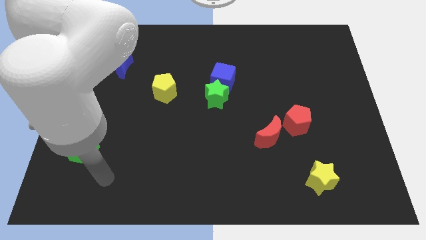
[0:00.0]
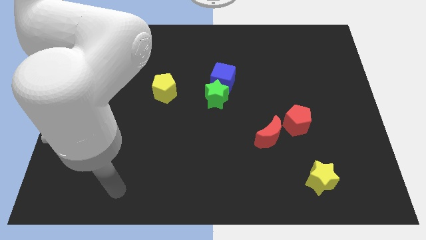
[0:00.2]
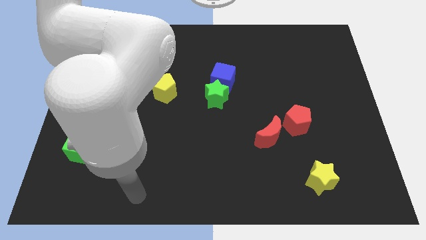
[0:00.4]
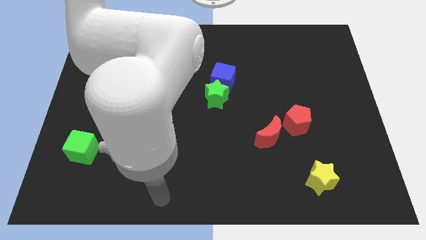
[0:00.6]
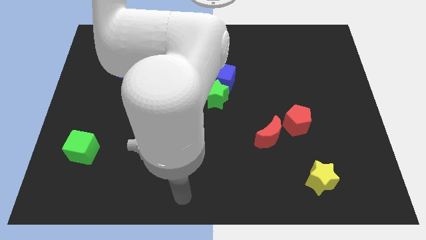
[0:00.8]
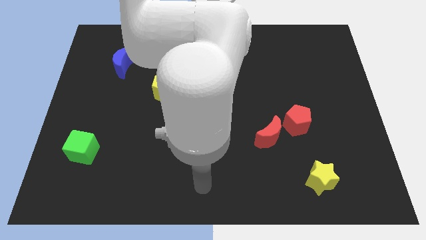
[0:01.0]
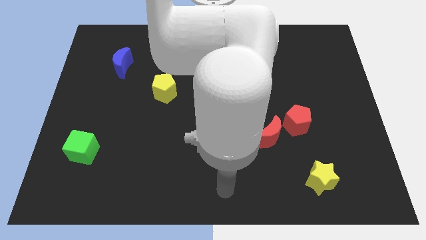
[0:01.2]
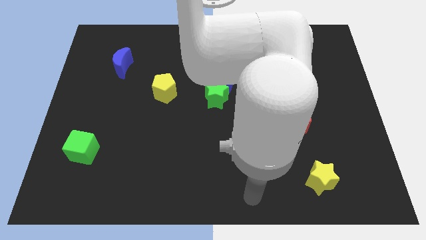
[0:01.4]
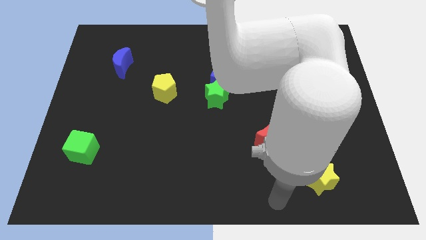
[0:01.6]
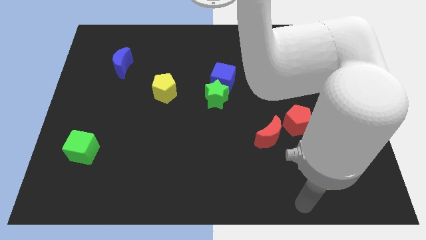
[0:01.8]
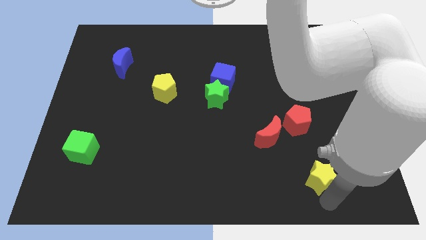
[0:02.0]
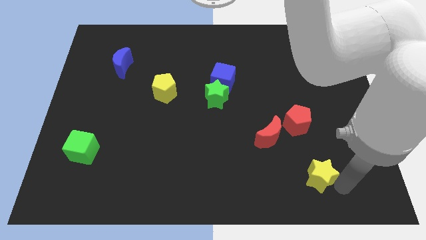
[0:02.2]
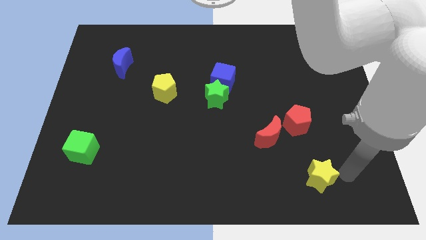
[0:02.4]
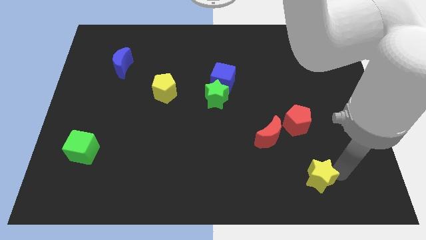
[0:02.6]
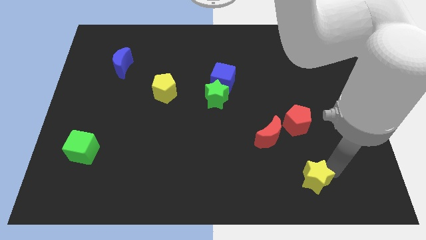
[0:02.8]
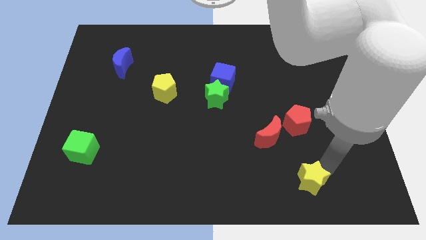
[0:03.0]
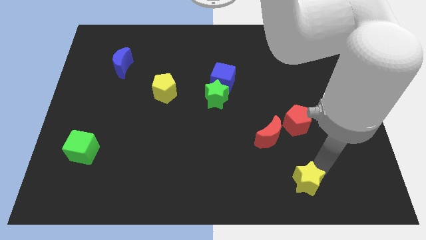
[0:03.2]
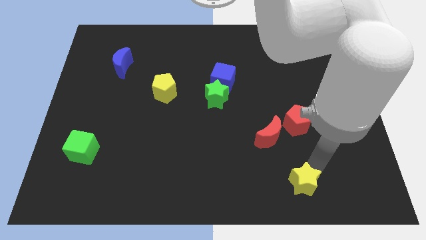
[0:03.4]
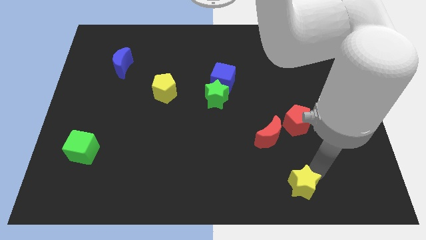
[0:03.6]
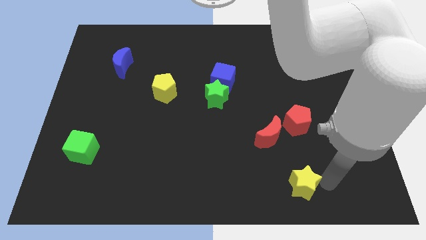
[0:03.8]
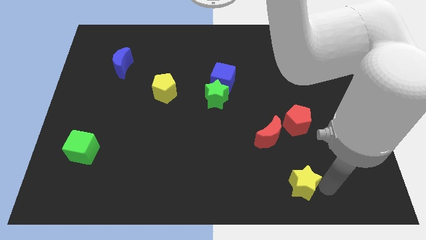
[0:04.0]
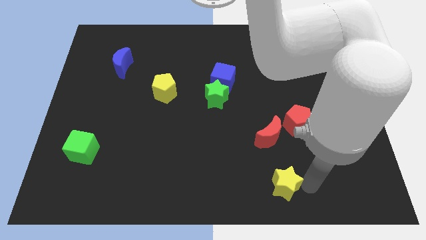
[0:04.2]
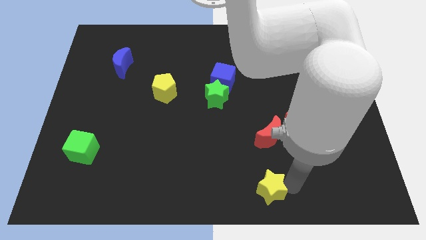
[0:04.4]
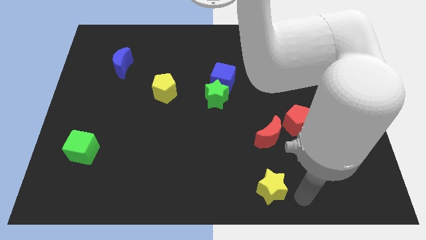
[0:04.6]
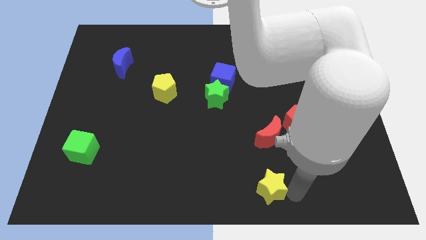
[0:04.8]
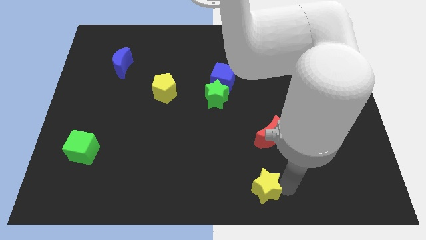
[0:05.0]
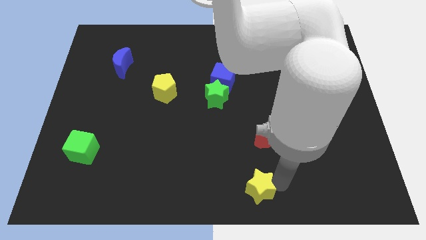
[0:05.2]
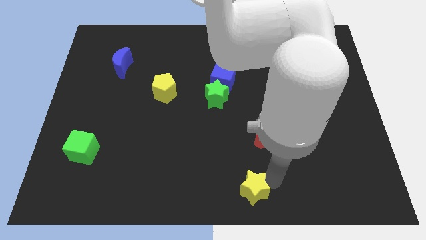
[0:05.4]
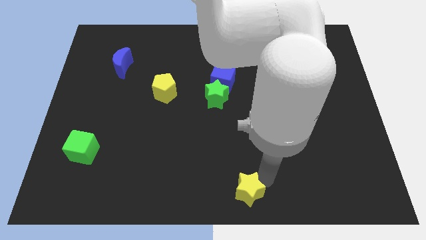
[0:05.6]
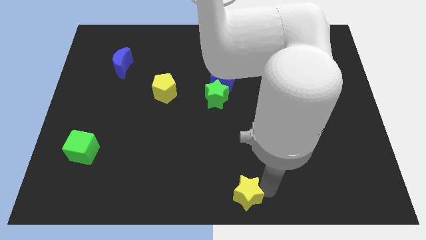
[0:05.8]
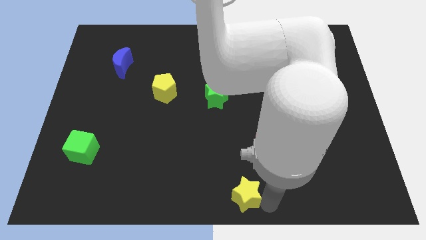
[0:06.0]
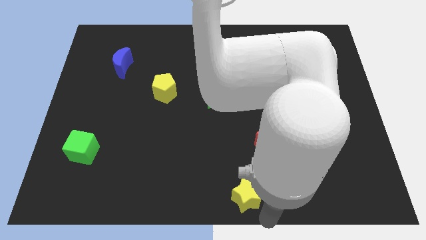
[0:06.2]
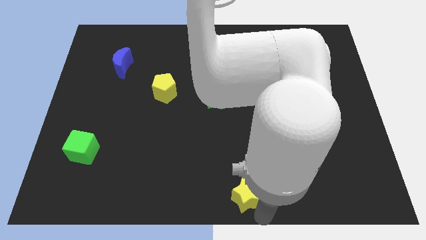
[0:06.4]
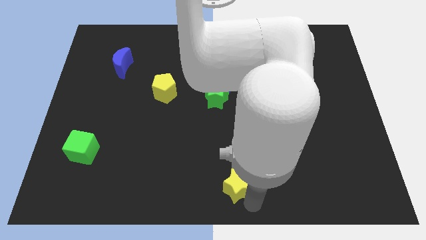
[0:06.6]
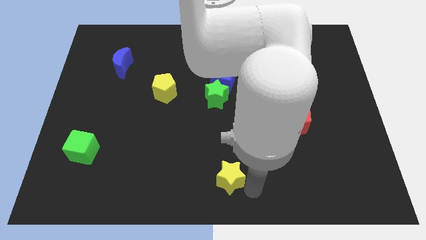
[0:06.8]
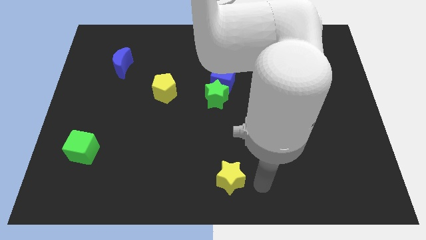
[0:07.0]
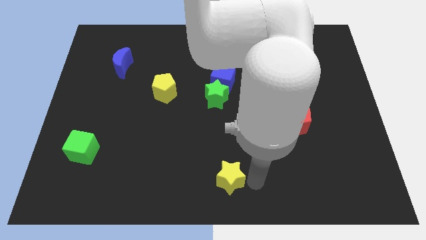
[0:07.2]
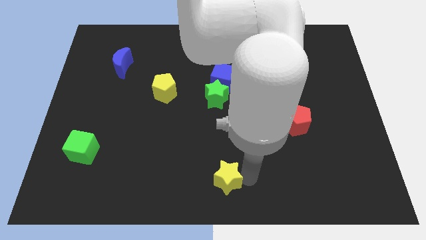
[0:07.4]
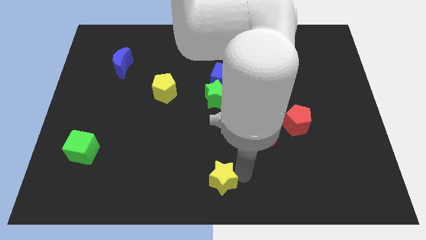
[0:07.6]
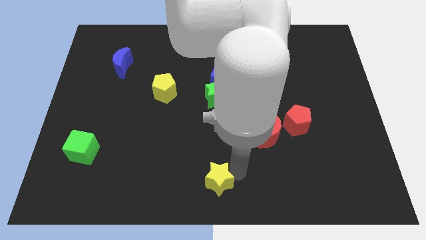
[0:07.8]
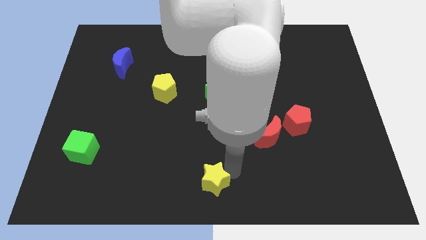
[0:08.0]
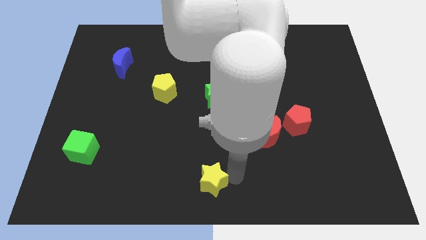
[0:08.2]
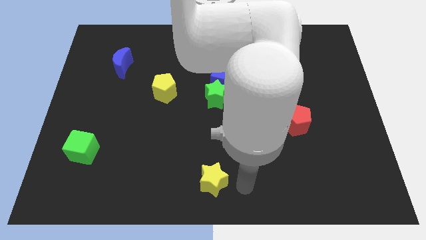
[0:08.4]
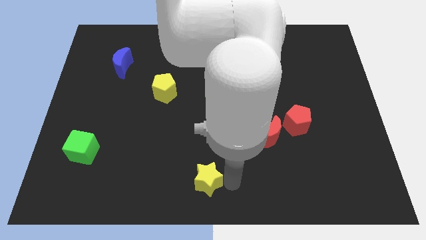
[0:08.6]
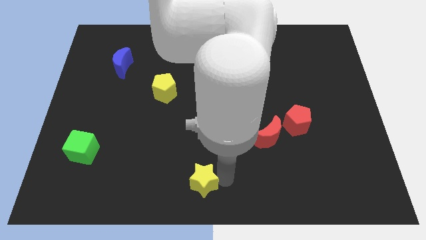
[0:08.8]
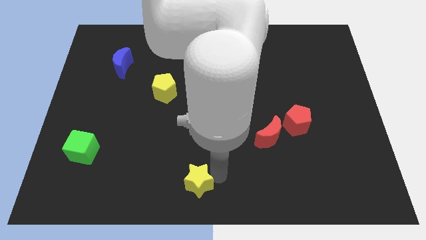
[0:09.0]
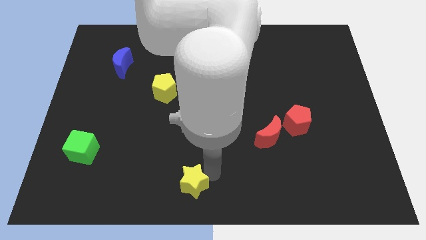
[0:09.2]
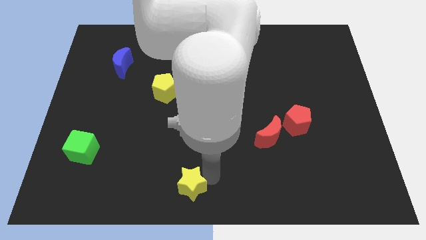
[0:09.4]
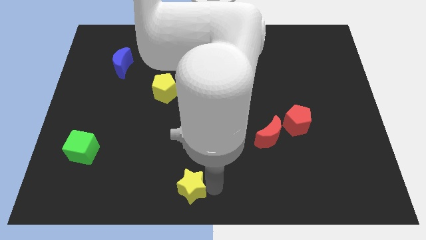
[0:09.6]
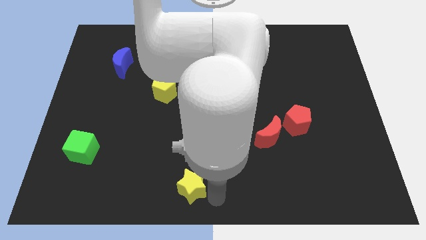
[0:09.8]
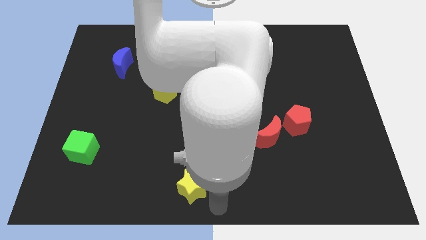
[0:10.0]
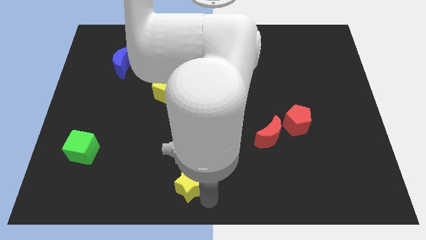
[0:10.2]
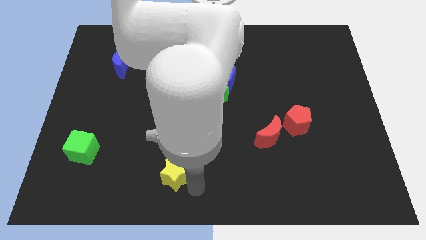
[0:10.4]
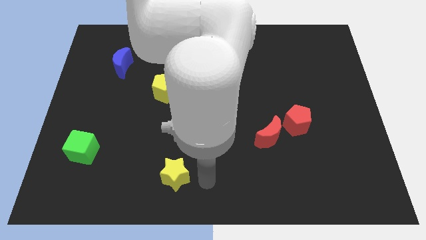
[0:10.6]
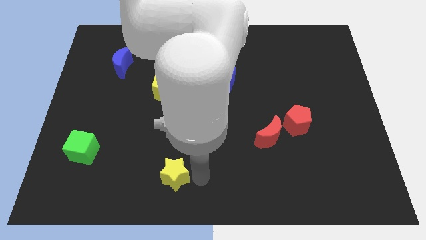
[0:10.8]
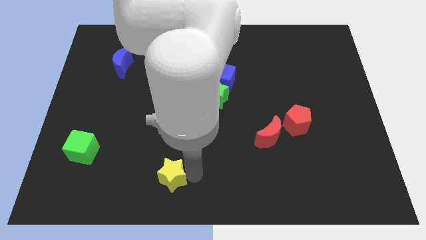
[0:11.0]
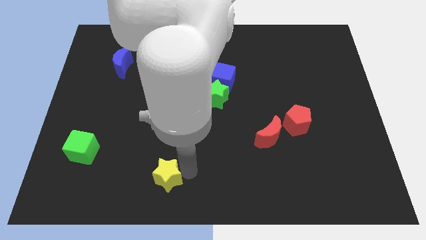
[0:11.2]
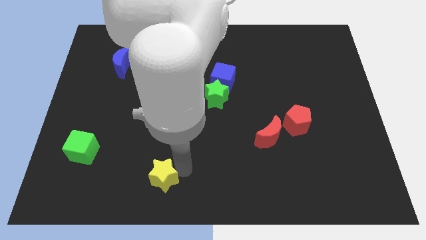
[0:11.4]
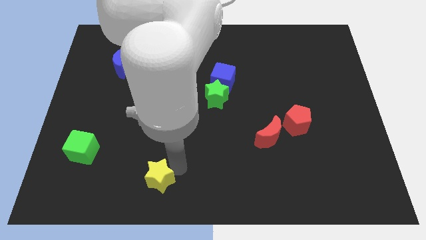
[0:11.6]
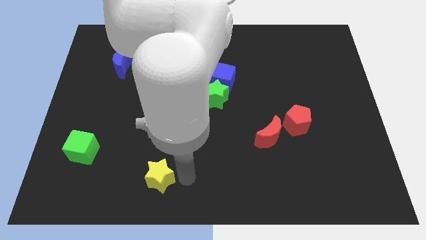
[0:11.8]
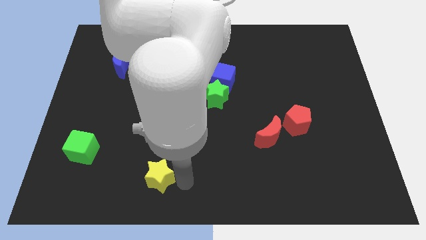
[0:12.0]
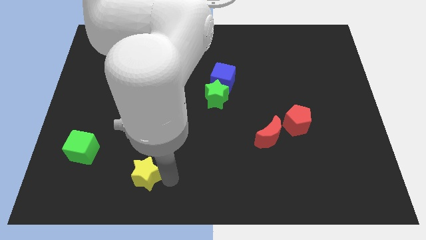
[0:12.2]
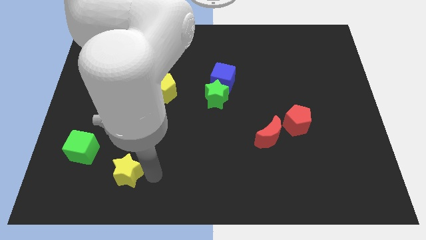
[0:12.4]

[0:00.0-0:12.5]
put the yellow star diagonally down and to the right of the green cube

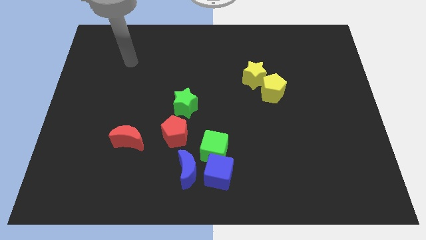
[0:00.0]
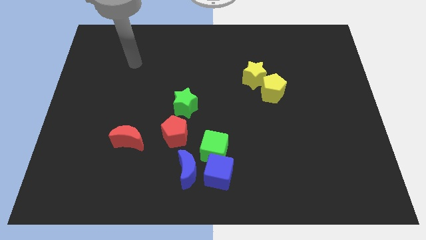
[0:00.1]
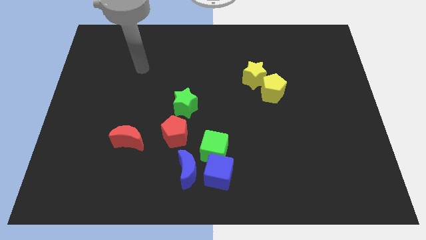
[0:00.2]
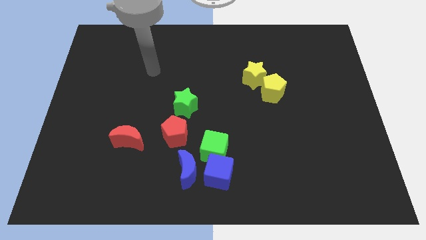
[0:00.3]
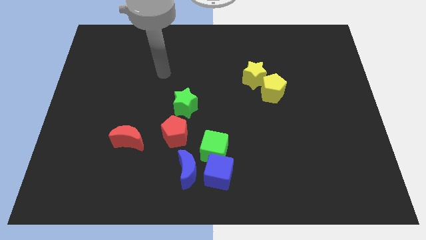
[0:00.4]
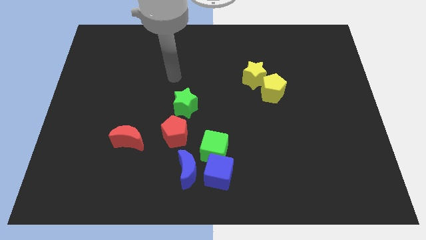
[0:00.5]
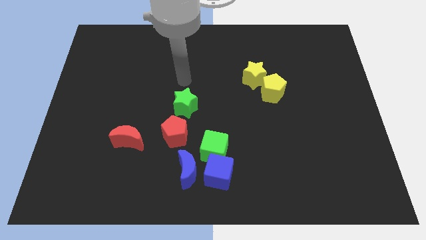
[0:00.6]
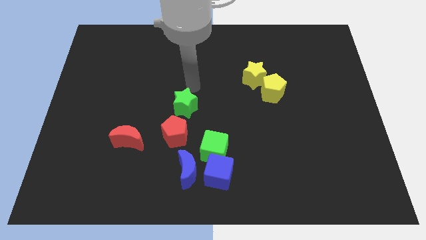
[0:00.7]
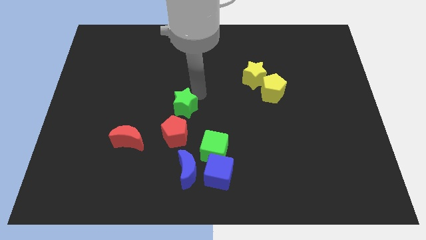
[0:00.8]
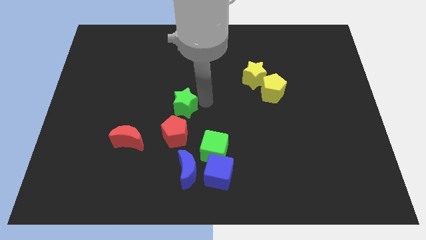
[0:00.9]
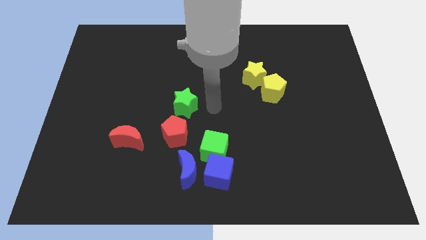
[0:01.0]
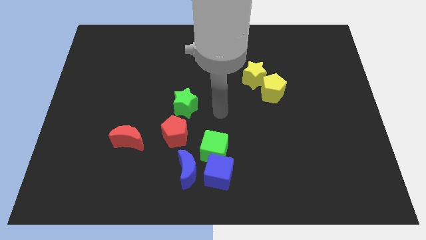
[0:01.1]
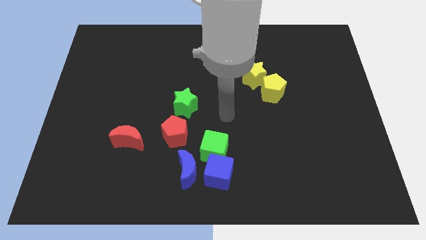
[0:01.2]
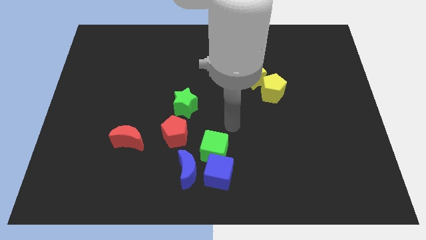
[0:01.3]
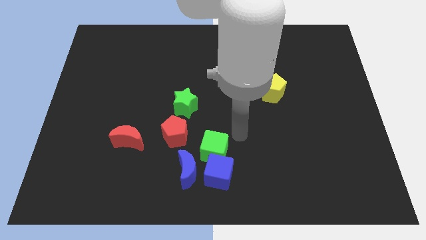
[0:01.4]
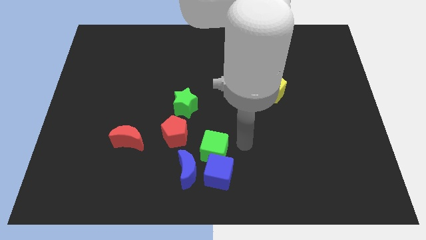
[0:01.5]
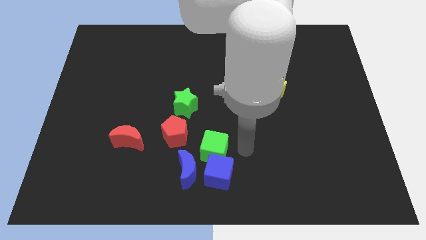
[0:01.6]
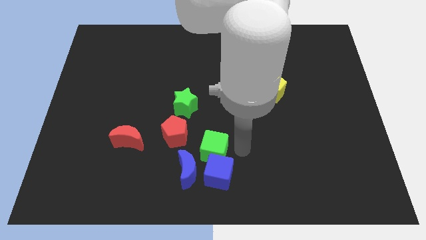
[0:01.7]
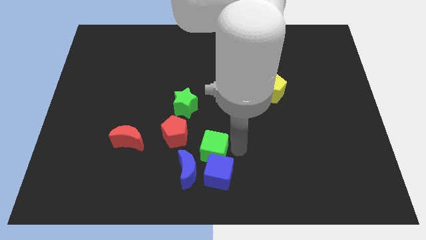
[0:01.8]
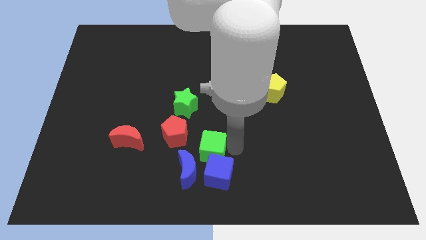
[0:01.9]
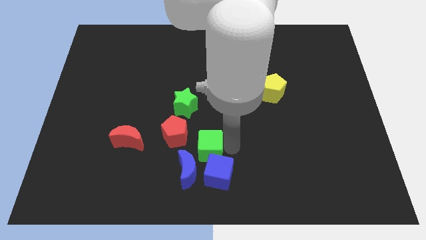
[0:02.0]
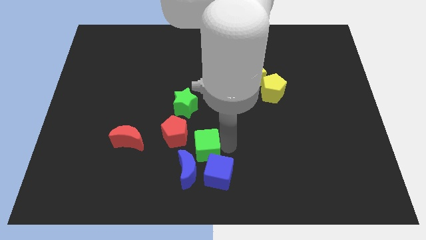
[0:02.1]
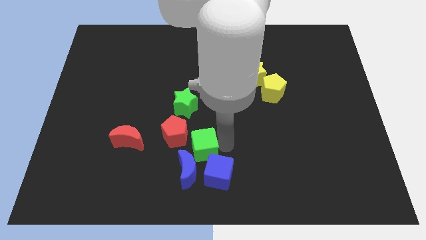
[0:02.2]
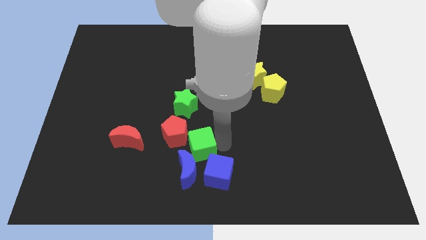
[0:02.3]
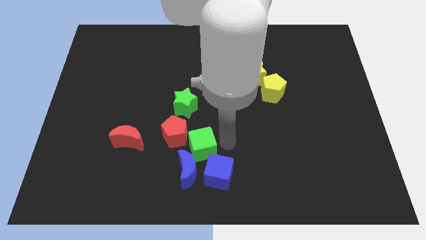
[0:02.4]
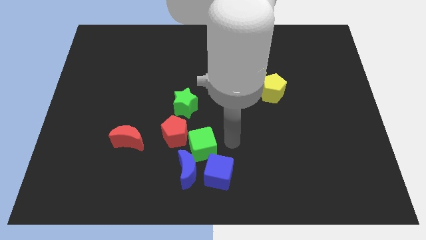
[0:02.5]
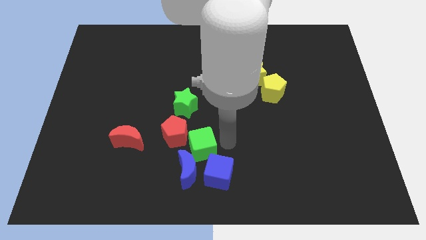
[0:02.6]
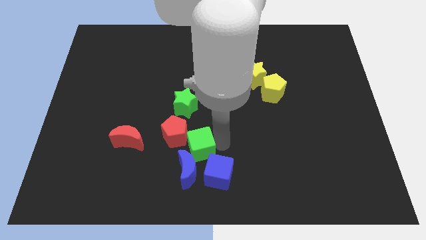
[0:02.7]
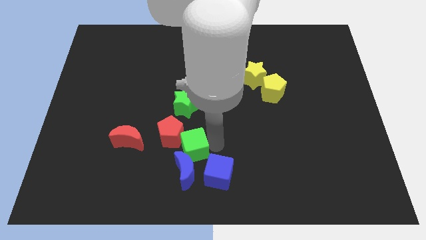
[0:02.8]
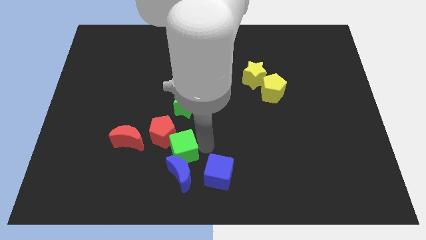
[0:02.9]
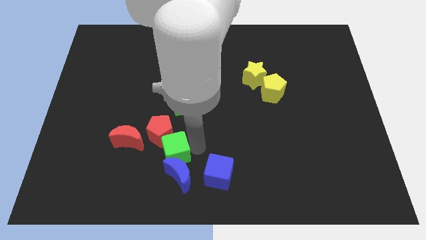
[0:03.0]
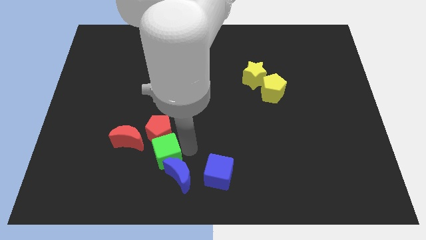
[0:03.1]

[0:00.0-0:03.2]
move the green cube diagonally down and to the right of the red moon
